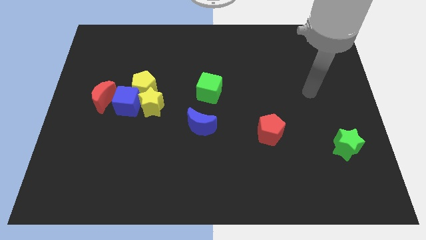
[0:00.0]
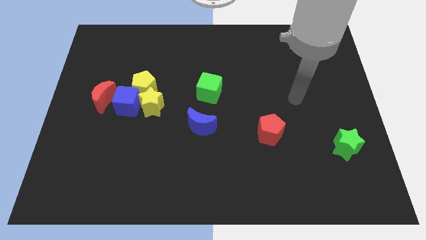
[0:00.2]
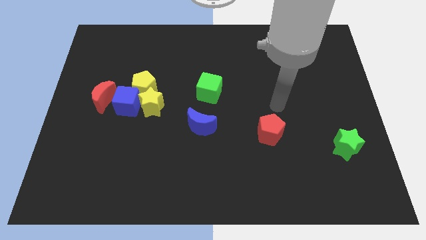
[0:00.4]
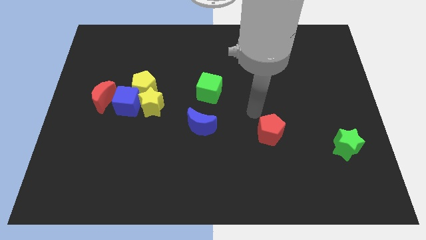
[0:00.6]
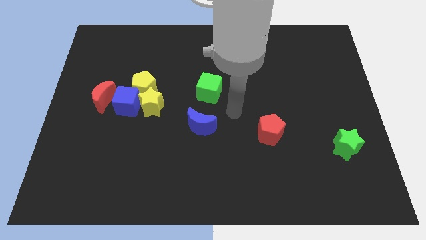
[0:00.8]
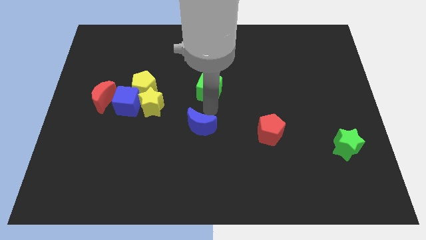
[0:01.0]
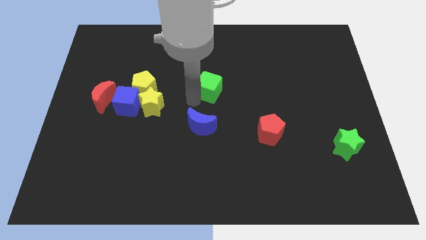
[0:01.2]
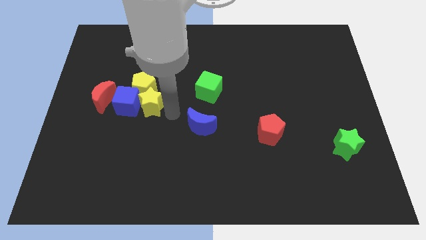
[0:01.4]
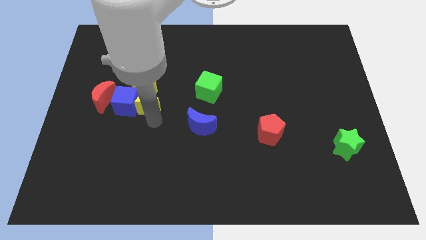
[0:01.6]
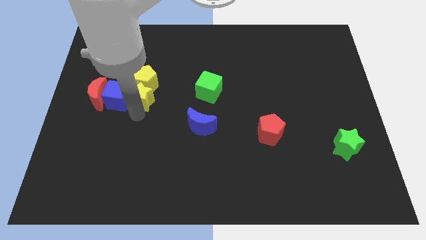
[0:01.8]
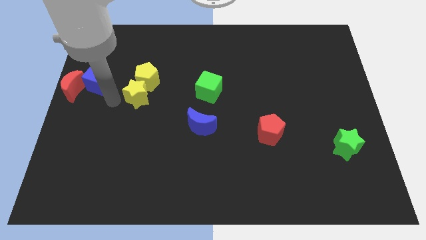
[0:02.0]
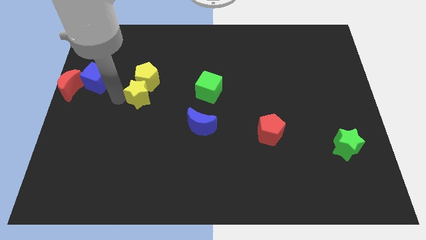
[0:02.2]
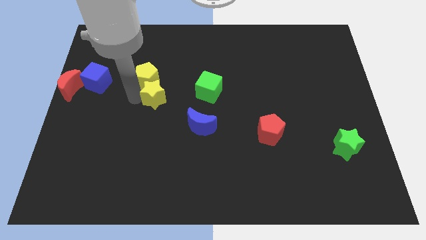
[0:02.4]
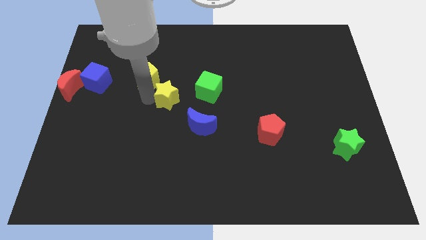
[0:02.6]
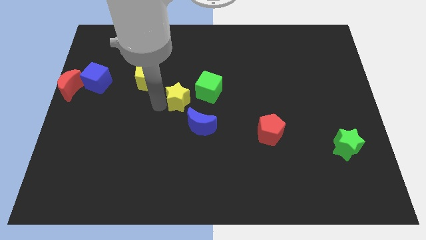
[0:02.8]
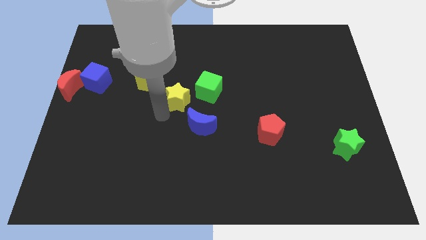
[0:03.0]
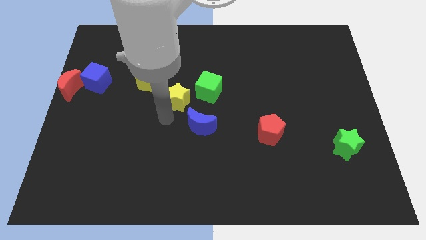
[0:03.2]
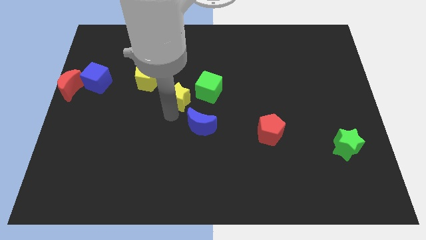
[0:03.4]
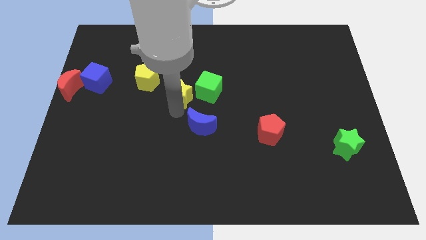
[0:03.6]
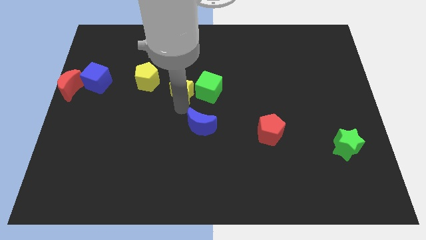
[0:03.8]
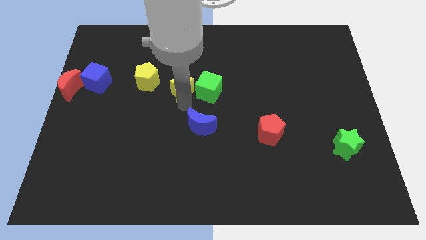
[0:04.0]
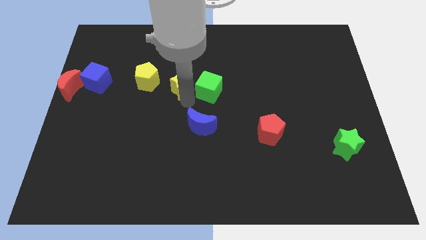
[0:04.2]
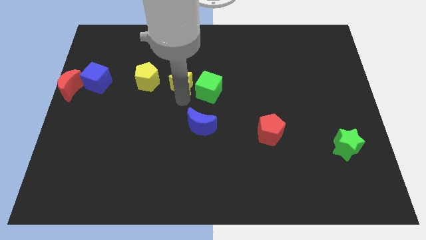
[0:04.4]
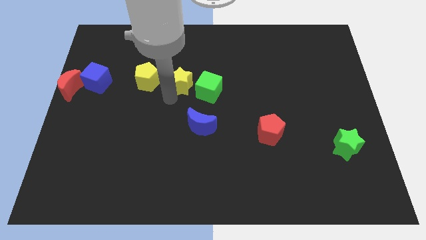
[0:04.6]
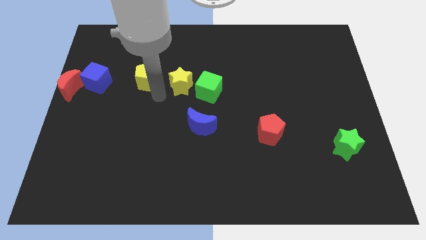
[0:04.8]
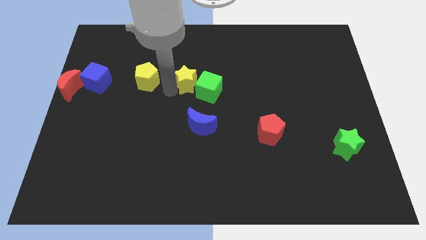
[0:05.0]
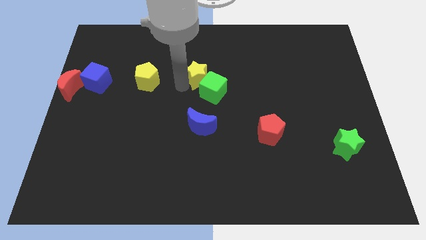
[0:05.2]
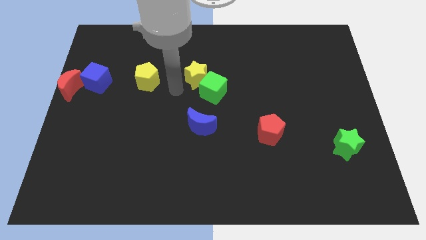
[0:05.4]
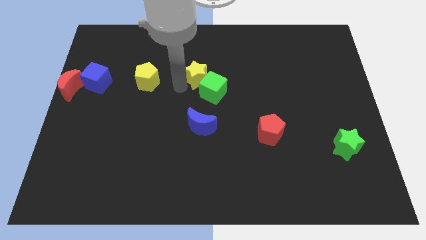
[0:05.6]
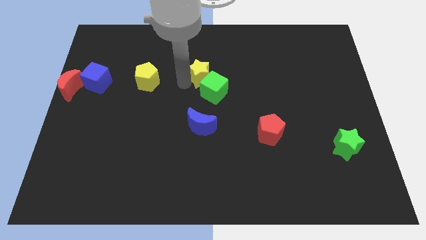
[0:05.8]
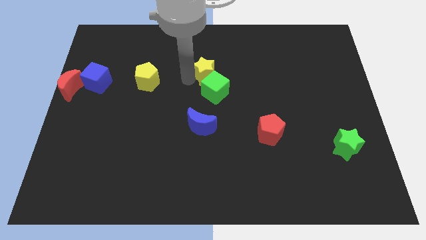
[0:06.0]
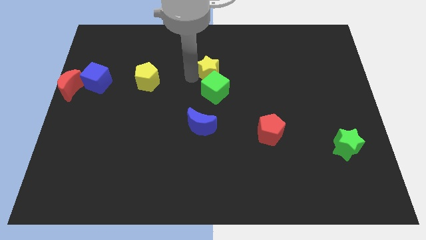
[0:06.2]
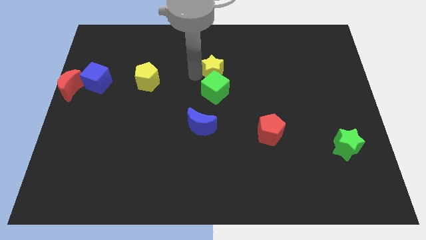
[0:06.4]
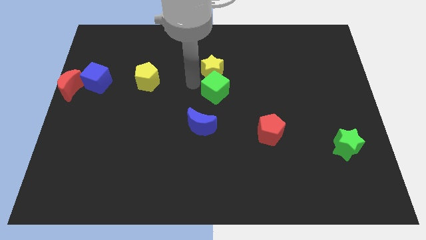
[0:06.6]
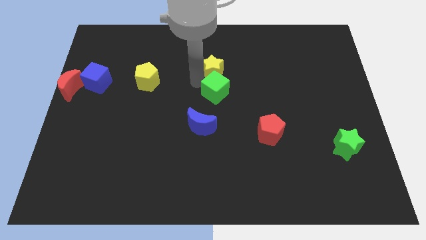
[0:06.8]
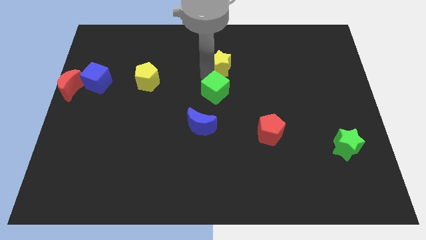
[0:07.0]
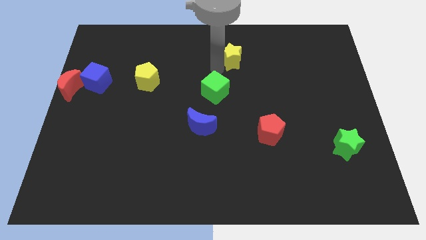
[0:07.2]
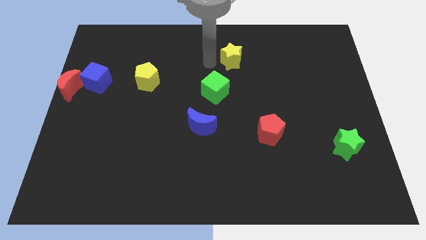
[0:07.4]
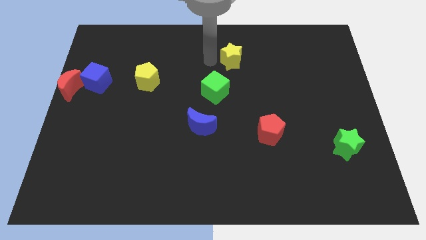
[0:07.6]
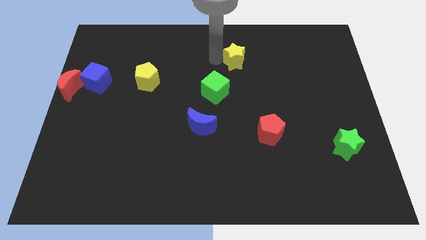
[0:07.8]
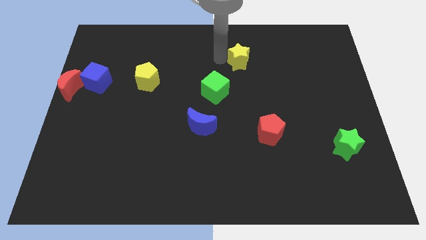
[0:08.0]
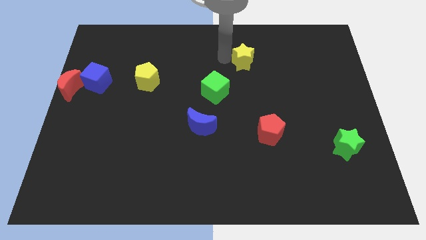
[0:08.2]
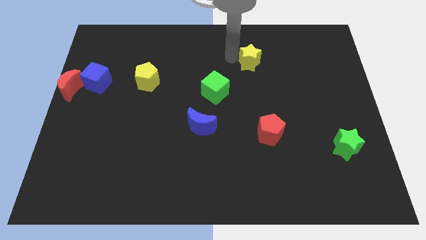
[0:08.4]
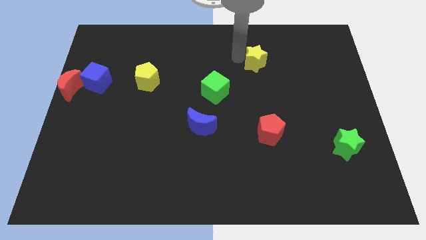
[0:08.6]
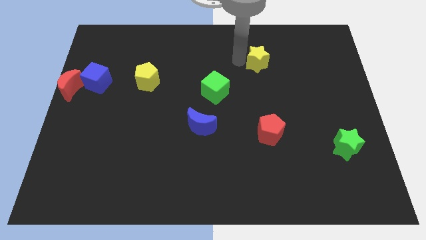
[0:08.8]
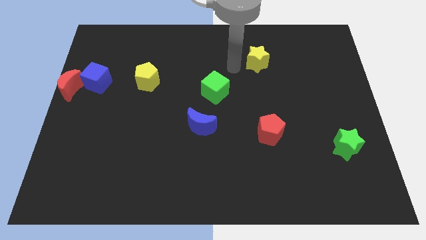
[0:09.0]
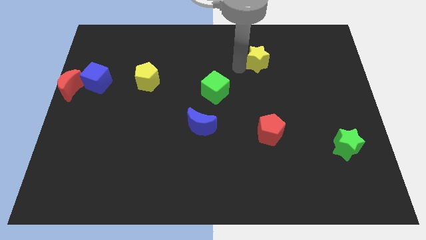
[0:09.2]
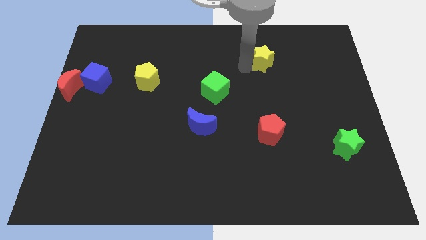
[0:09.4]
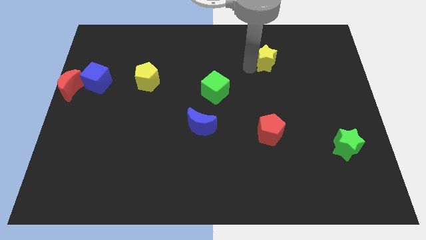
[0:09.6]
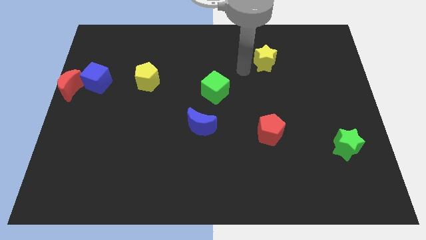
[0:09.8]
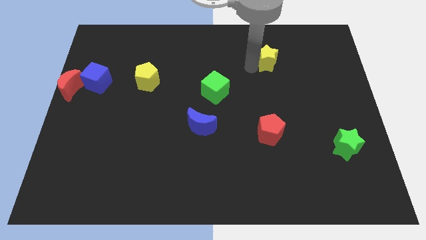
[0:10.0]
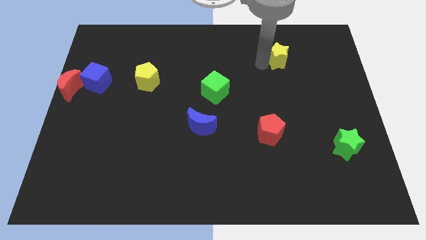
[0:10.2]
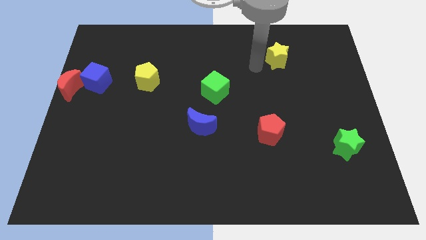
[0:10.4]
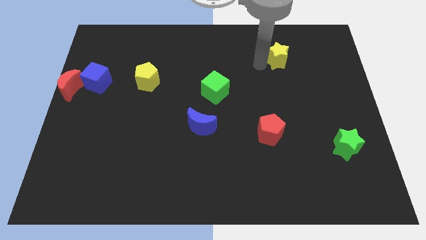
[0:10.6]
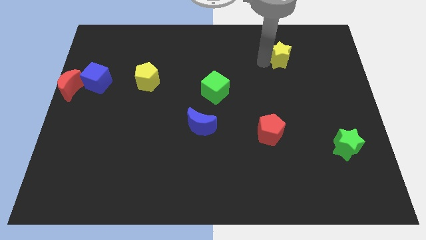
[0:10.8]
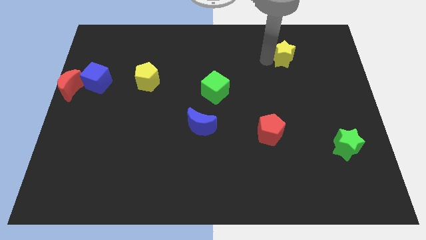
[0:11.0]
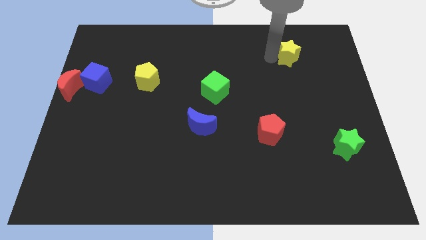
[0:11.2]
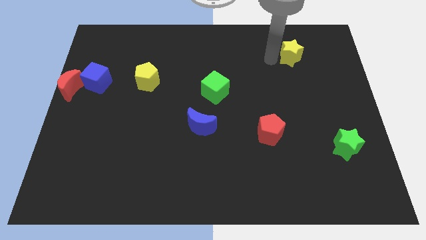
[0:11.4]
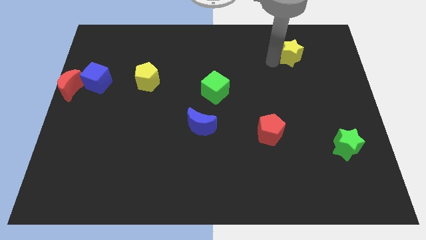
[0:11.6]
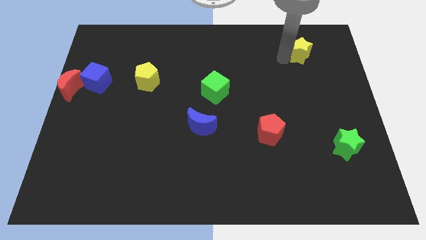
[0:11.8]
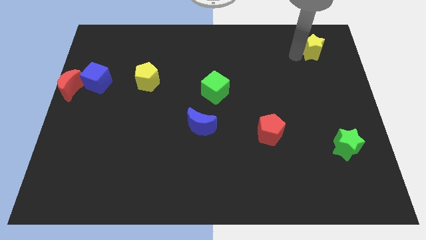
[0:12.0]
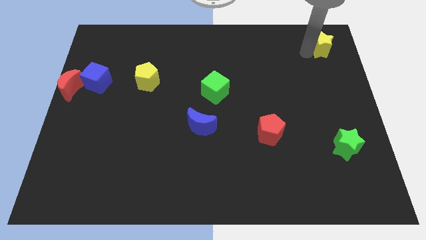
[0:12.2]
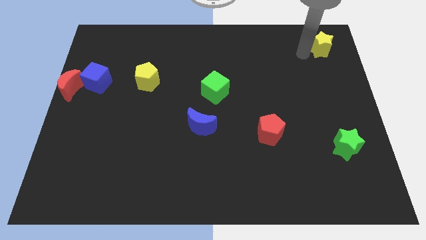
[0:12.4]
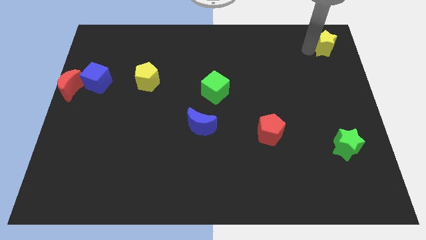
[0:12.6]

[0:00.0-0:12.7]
slide the yellow star to the top right

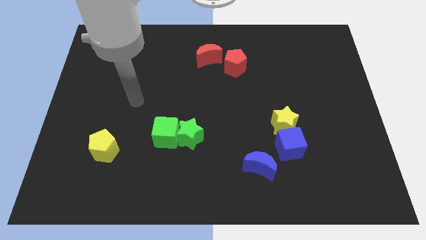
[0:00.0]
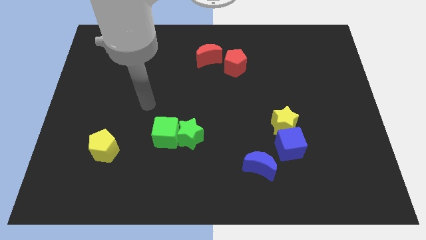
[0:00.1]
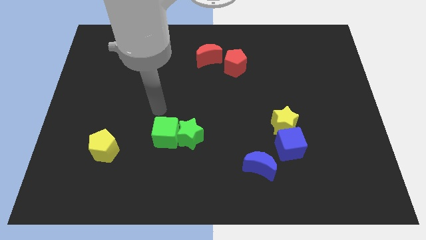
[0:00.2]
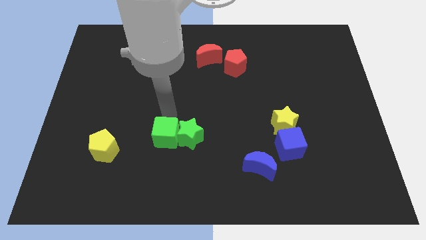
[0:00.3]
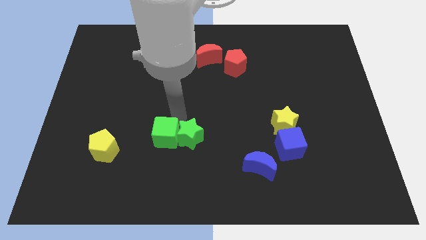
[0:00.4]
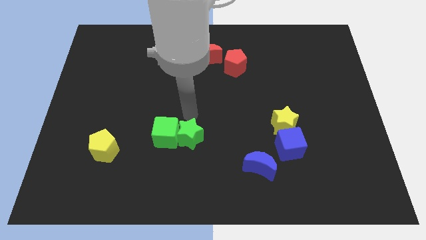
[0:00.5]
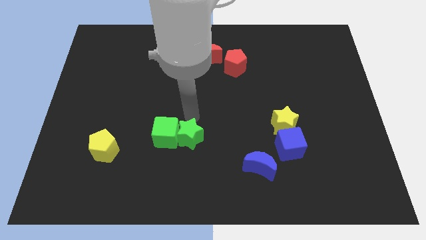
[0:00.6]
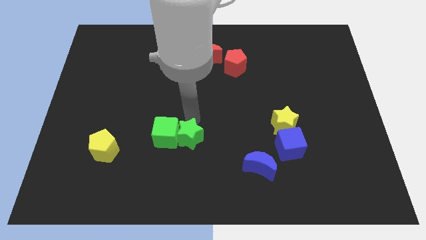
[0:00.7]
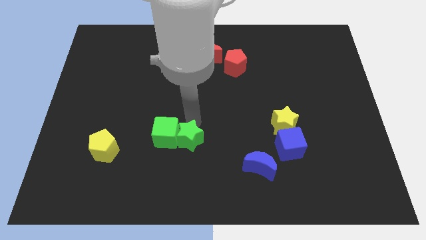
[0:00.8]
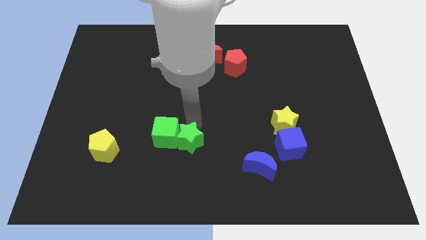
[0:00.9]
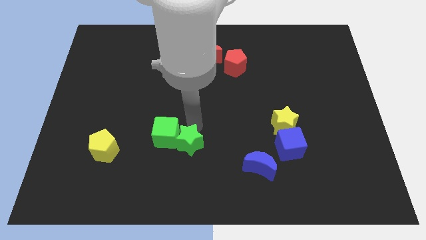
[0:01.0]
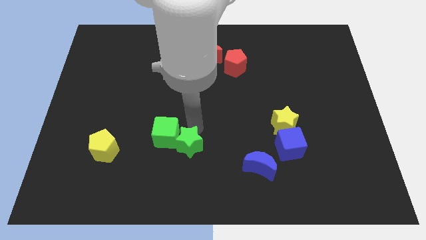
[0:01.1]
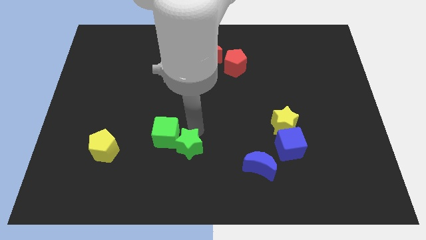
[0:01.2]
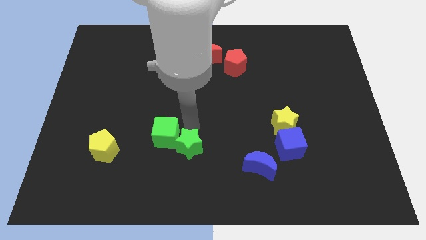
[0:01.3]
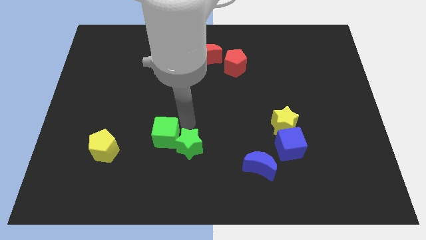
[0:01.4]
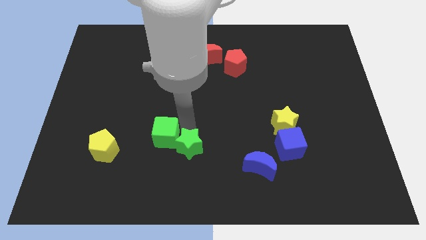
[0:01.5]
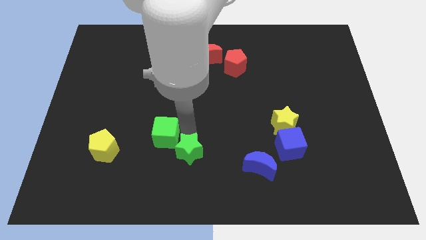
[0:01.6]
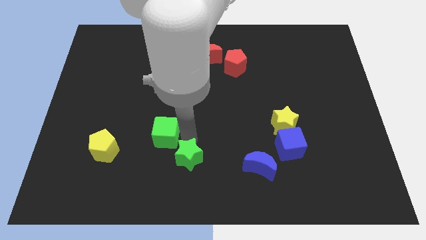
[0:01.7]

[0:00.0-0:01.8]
move the green star to the bottom side
